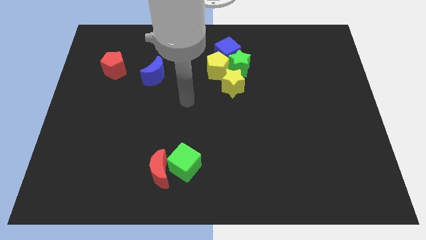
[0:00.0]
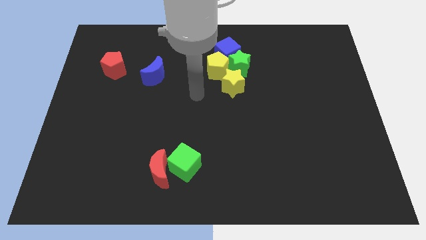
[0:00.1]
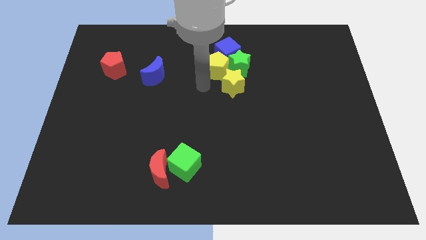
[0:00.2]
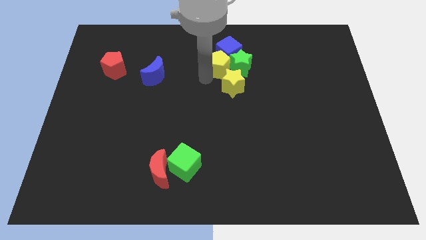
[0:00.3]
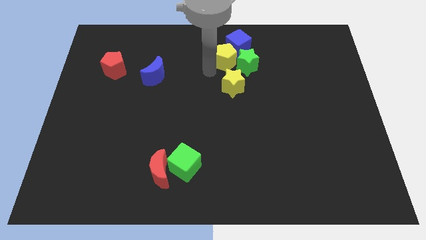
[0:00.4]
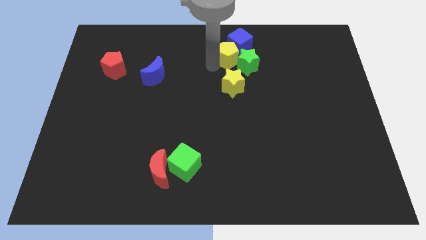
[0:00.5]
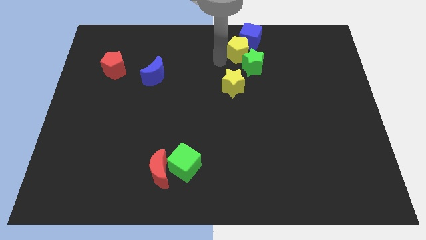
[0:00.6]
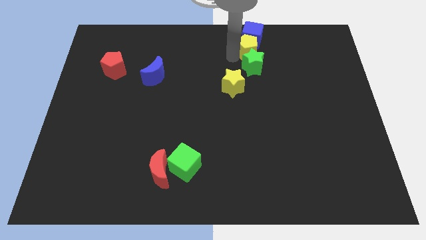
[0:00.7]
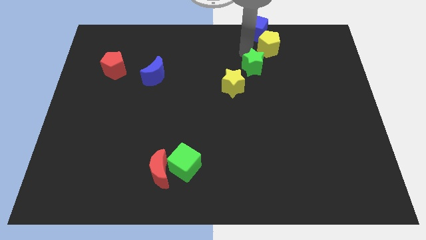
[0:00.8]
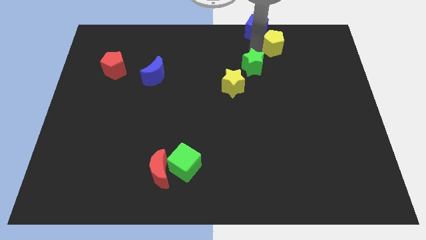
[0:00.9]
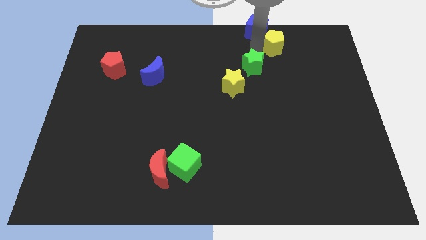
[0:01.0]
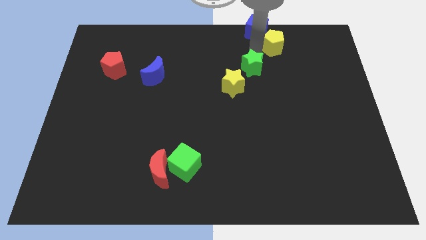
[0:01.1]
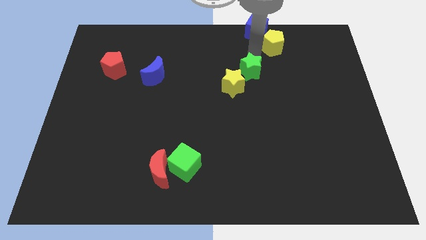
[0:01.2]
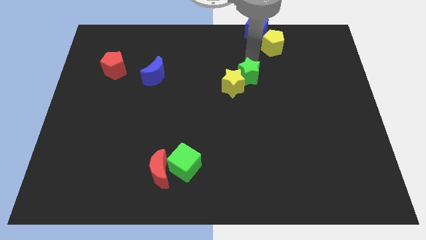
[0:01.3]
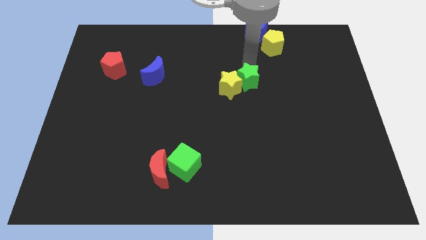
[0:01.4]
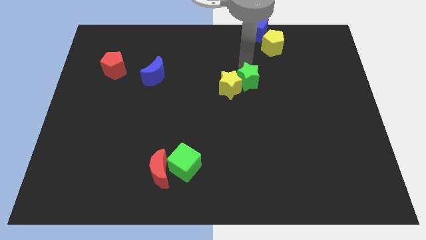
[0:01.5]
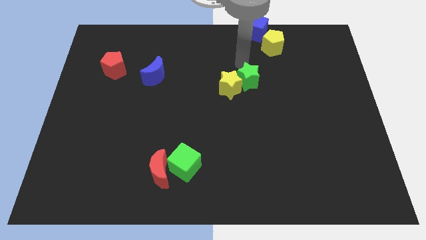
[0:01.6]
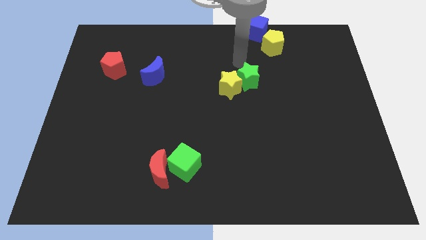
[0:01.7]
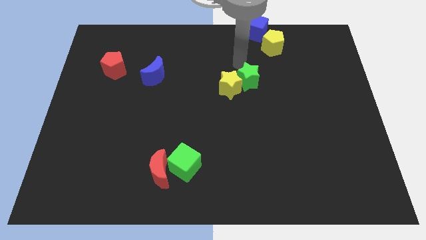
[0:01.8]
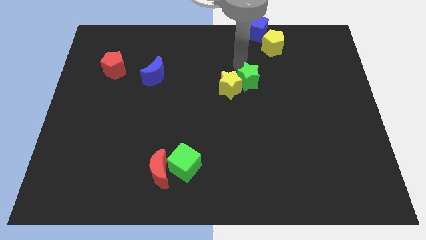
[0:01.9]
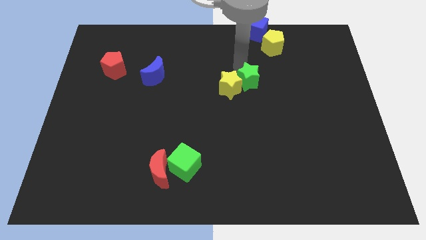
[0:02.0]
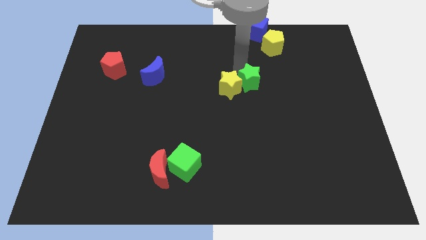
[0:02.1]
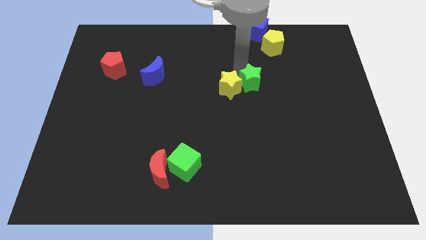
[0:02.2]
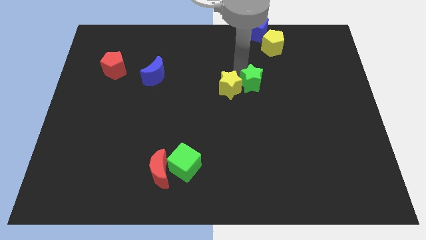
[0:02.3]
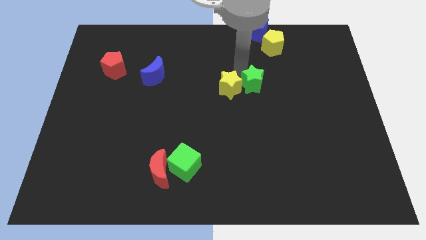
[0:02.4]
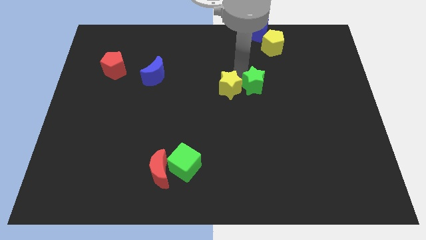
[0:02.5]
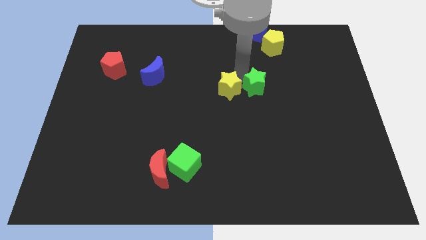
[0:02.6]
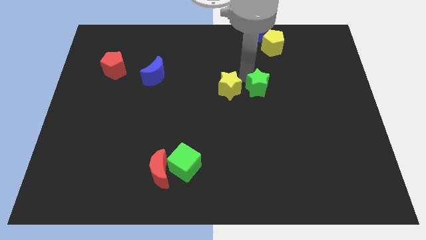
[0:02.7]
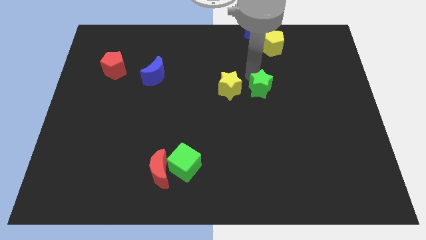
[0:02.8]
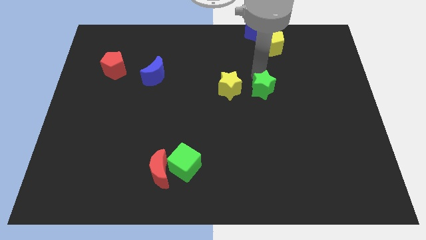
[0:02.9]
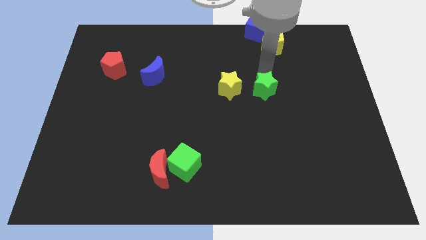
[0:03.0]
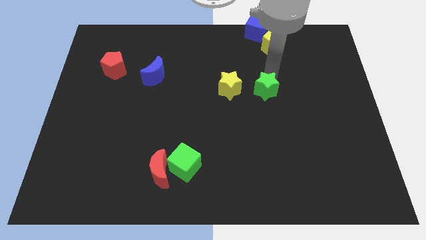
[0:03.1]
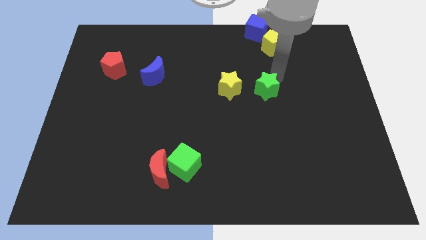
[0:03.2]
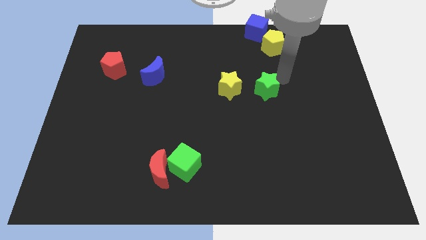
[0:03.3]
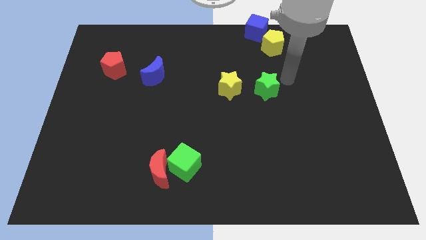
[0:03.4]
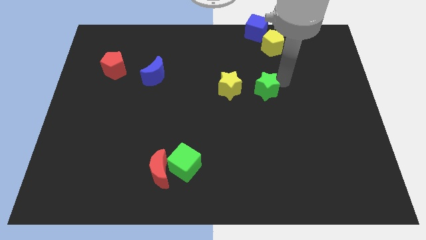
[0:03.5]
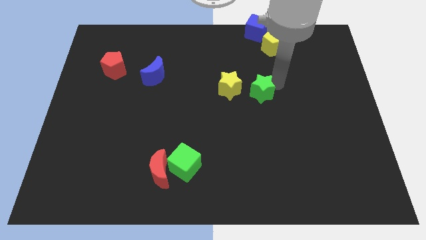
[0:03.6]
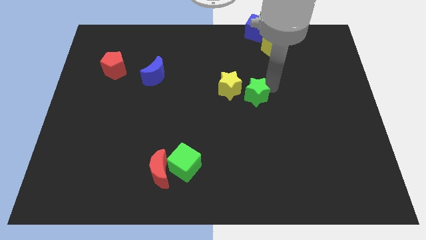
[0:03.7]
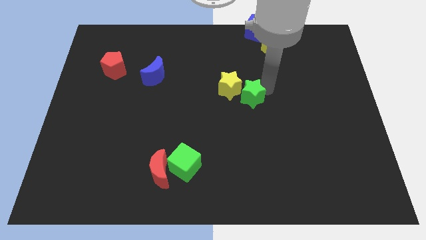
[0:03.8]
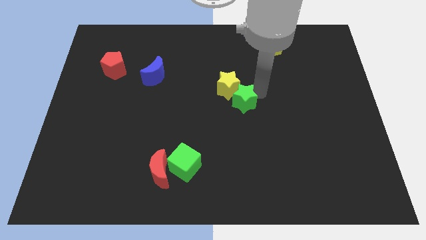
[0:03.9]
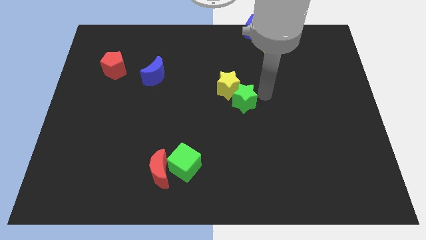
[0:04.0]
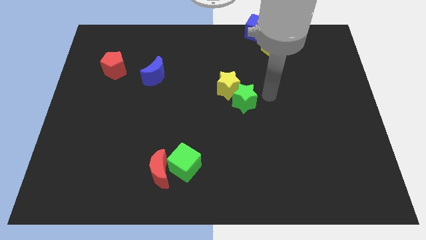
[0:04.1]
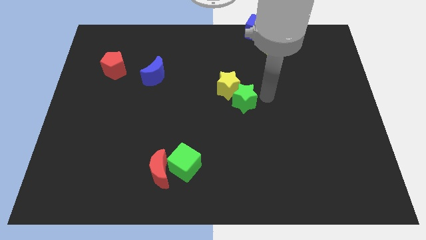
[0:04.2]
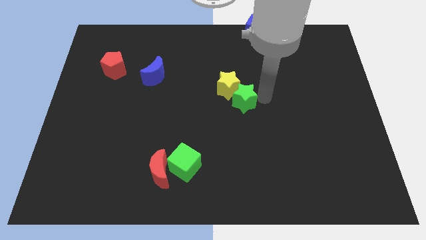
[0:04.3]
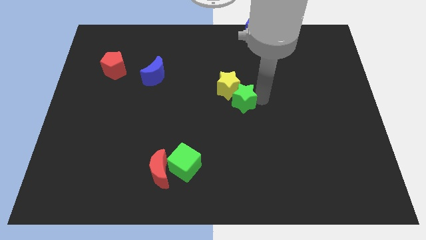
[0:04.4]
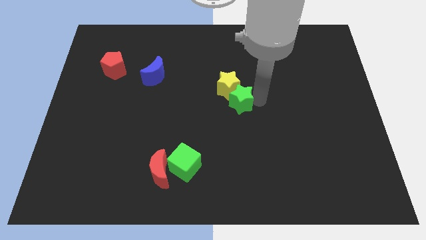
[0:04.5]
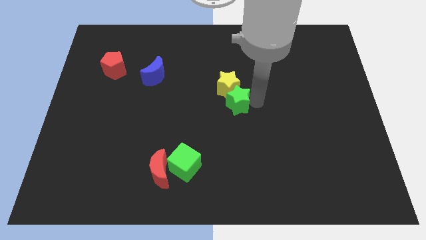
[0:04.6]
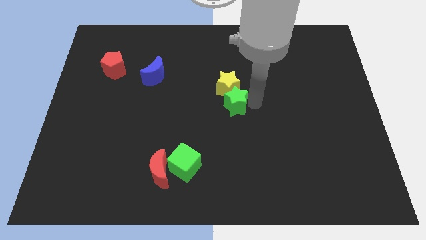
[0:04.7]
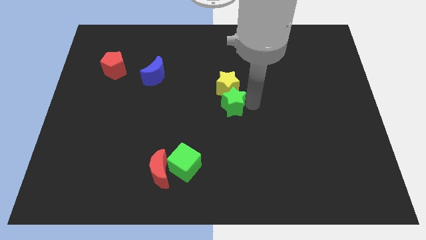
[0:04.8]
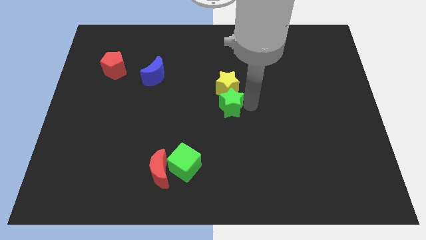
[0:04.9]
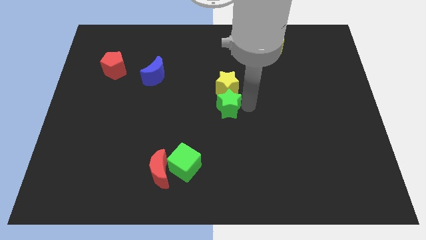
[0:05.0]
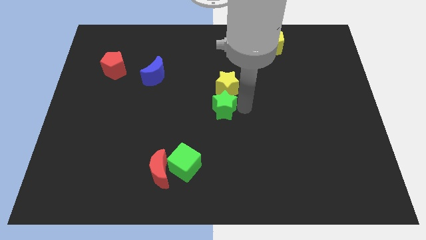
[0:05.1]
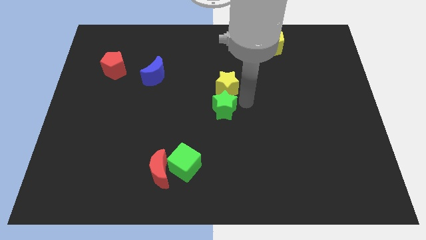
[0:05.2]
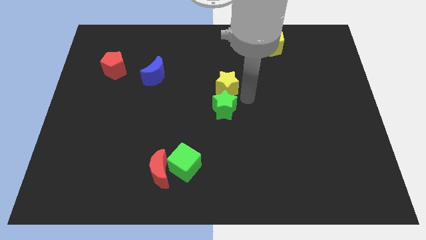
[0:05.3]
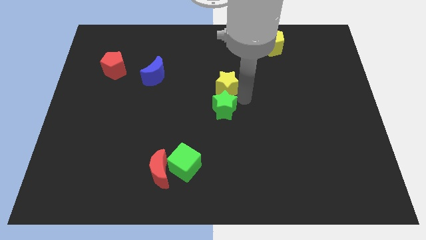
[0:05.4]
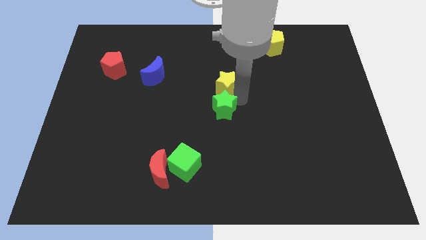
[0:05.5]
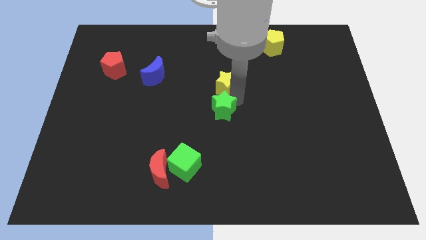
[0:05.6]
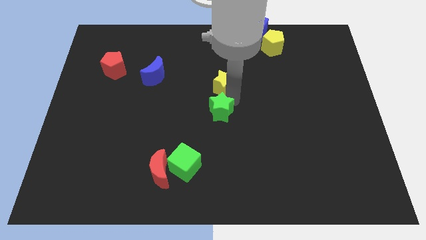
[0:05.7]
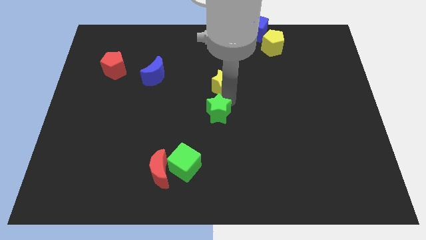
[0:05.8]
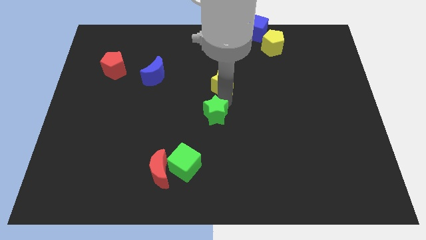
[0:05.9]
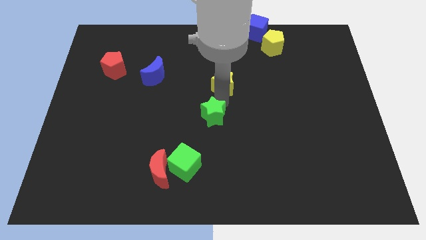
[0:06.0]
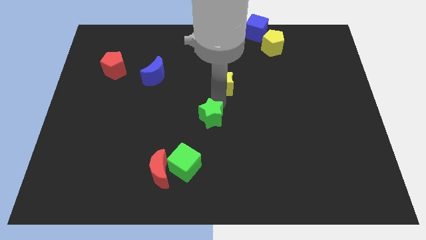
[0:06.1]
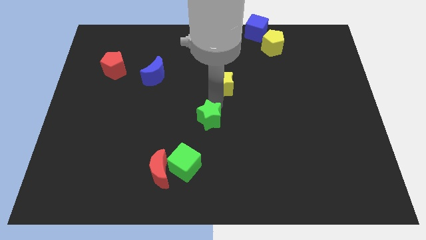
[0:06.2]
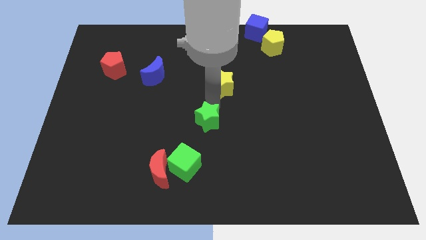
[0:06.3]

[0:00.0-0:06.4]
slide the green star to the top of the green cube

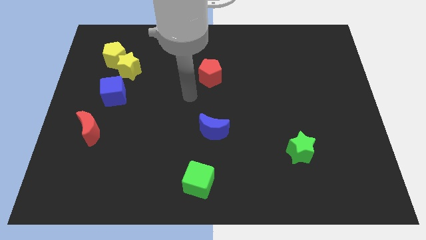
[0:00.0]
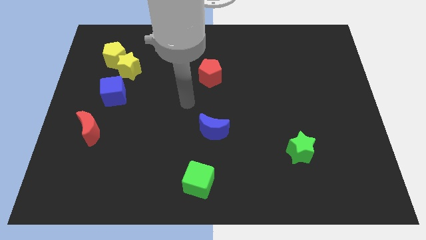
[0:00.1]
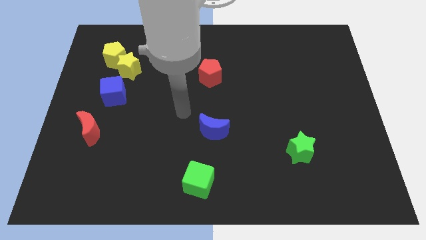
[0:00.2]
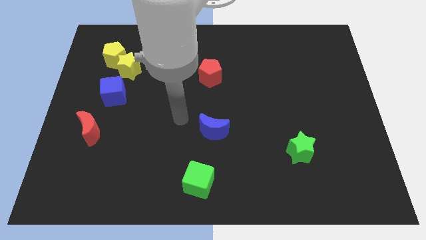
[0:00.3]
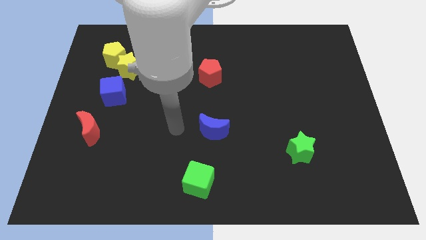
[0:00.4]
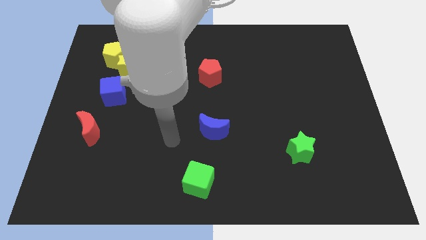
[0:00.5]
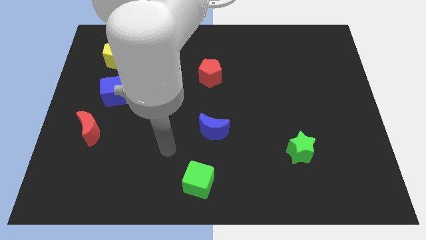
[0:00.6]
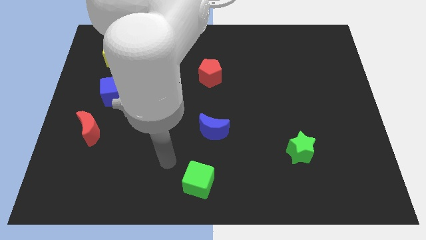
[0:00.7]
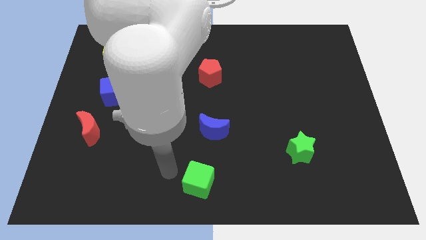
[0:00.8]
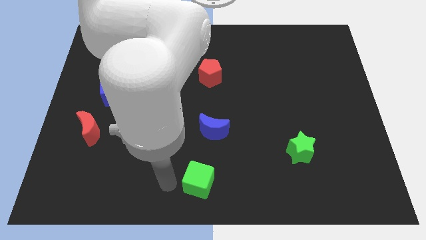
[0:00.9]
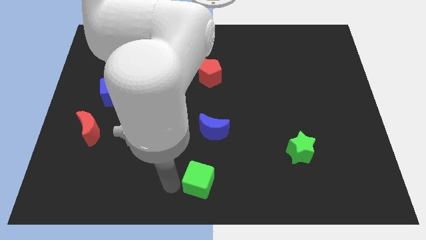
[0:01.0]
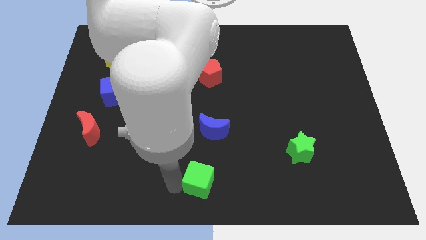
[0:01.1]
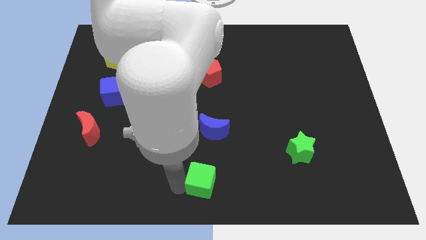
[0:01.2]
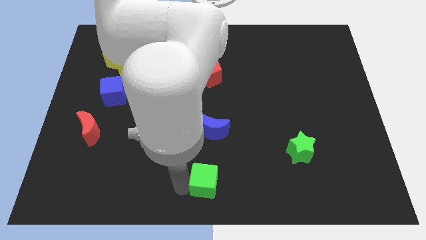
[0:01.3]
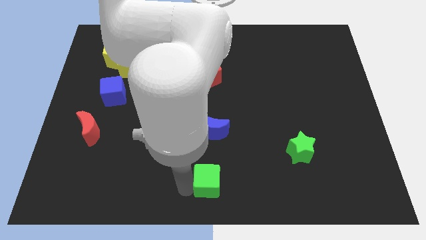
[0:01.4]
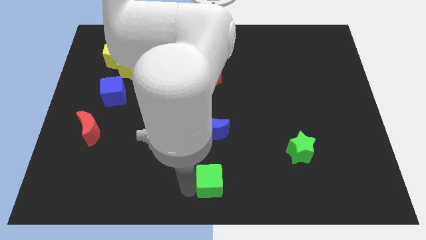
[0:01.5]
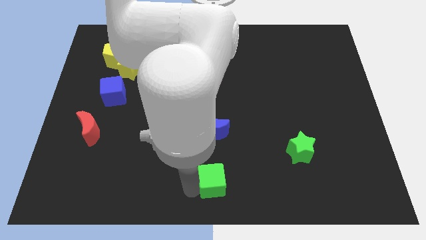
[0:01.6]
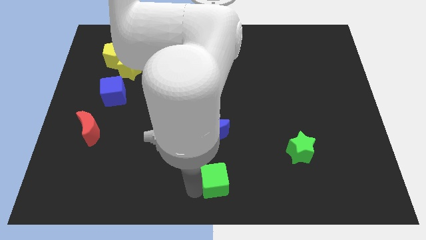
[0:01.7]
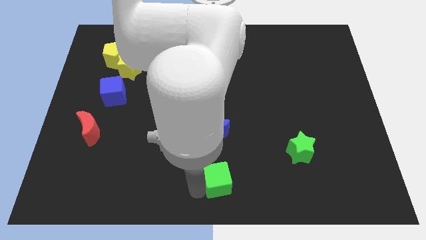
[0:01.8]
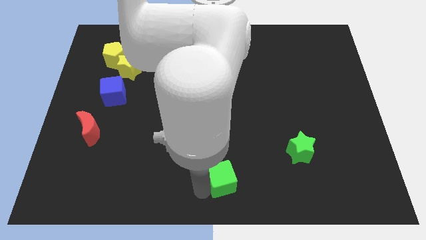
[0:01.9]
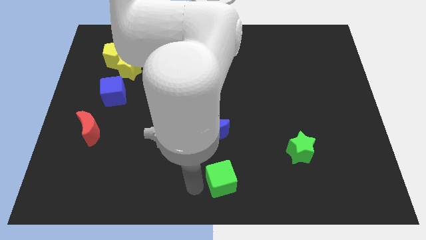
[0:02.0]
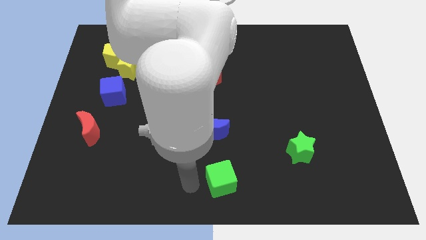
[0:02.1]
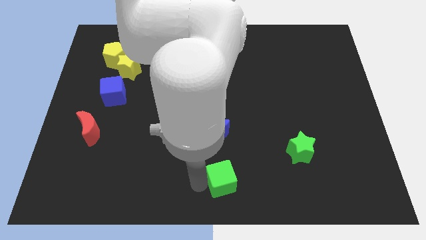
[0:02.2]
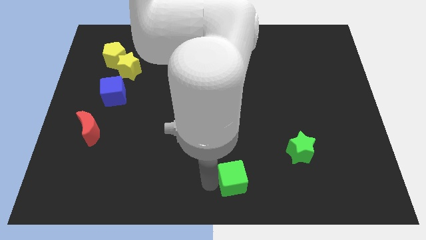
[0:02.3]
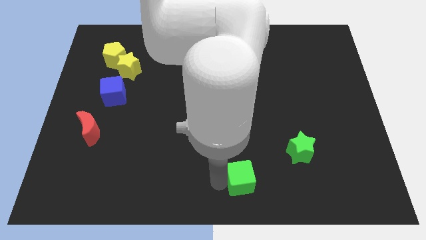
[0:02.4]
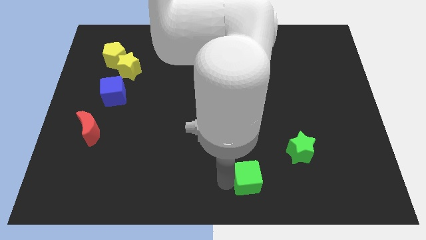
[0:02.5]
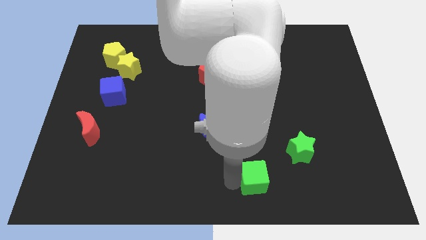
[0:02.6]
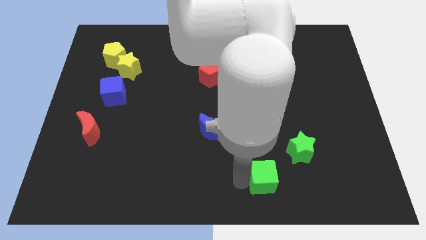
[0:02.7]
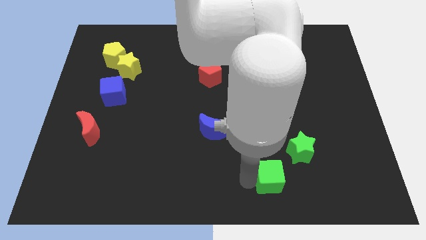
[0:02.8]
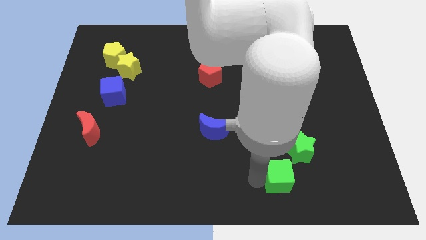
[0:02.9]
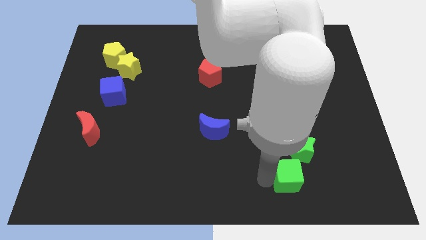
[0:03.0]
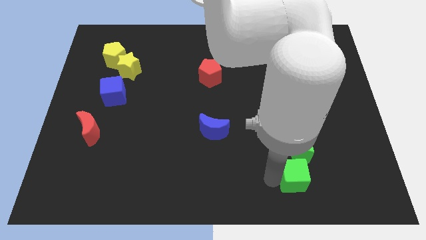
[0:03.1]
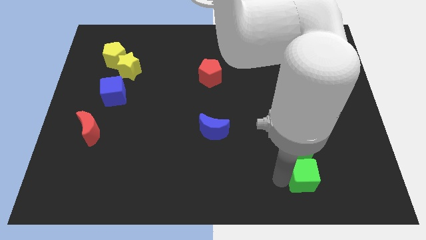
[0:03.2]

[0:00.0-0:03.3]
put the green cube to the bottom right side of the green star
